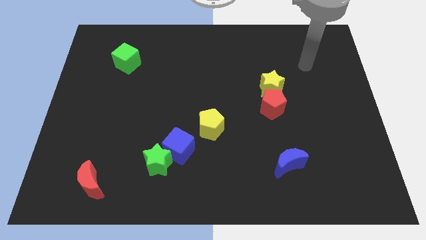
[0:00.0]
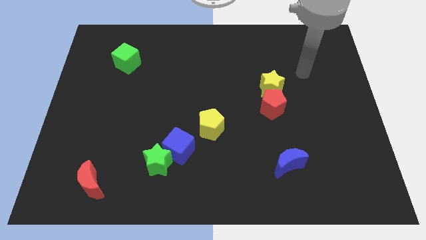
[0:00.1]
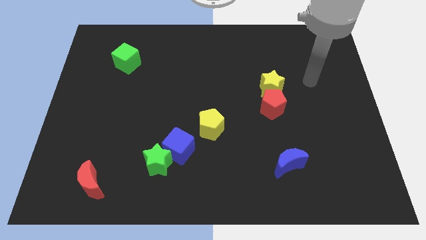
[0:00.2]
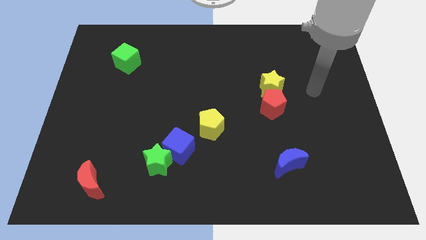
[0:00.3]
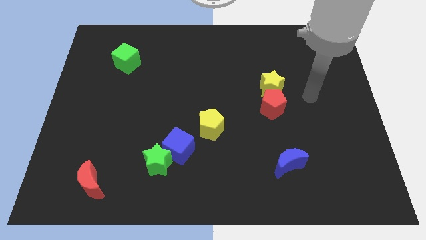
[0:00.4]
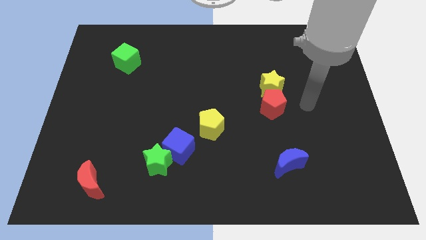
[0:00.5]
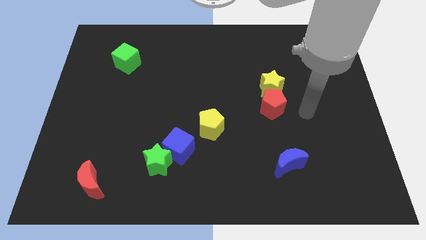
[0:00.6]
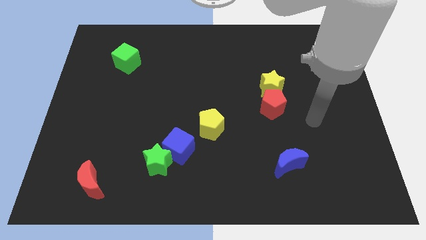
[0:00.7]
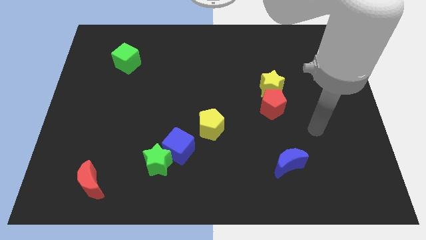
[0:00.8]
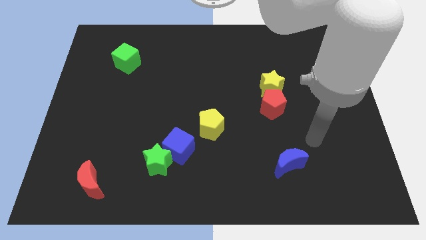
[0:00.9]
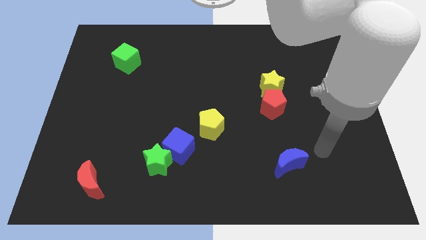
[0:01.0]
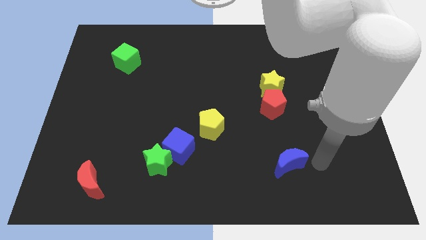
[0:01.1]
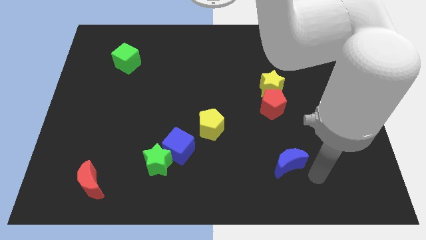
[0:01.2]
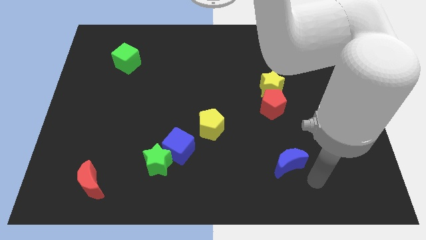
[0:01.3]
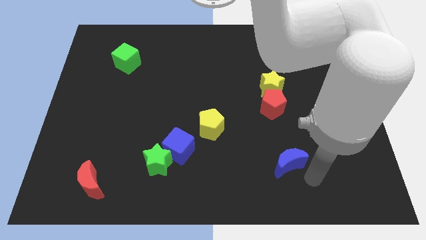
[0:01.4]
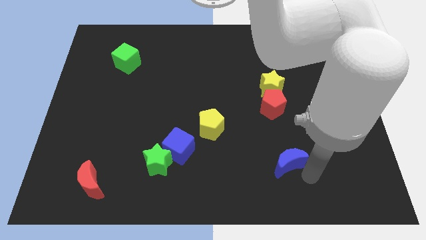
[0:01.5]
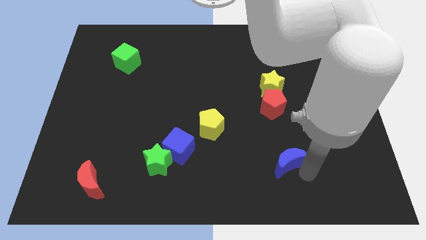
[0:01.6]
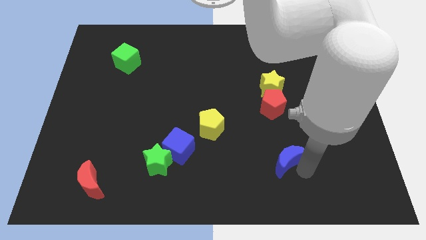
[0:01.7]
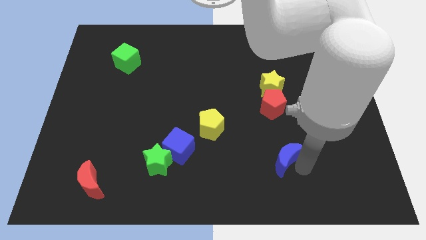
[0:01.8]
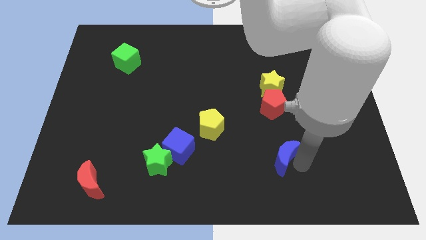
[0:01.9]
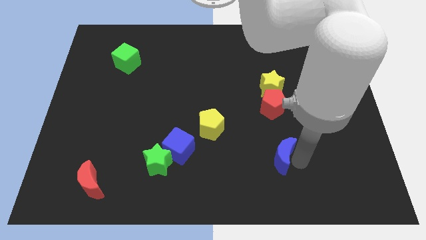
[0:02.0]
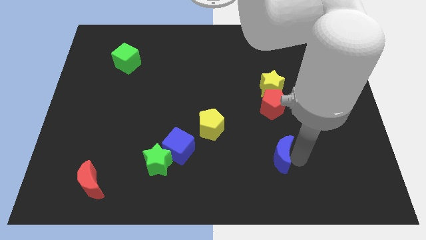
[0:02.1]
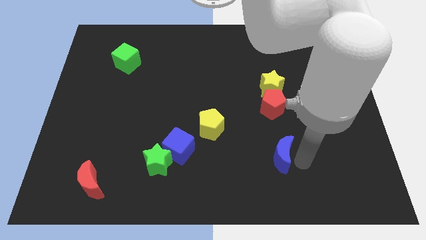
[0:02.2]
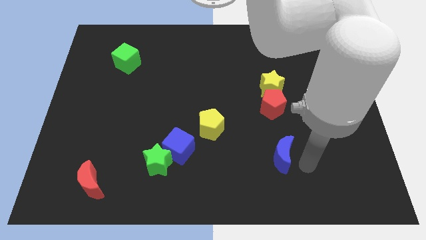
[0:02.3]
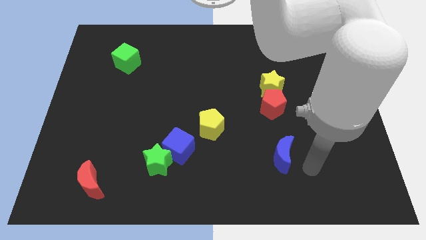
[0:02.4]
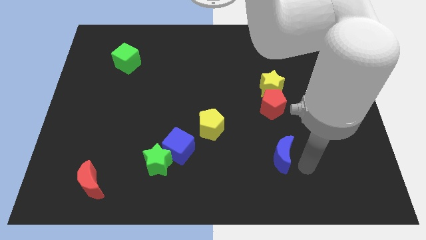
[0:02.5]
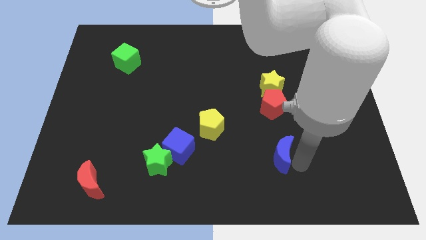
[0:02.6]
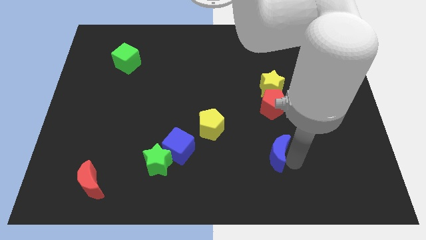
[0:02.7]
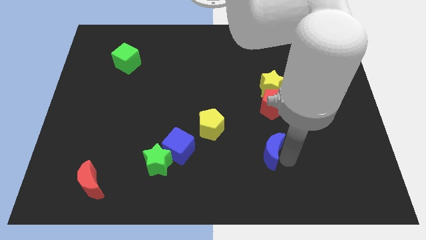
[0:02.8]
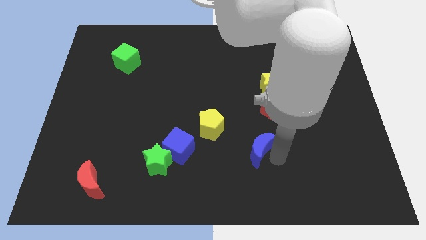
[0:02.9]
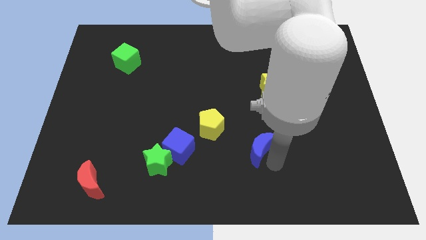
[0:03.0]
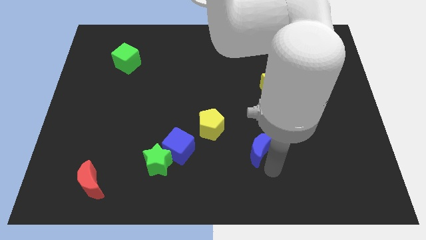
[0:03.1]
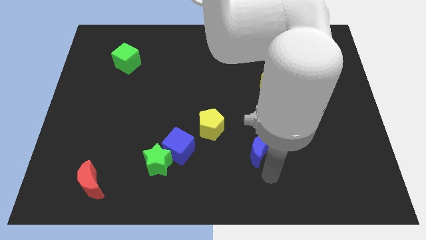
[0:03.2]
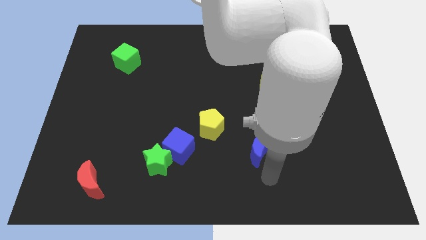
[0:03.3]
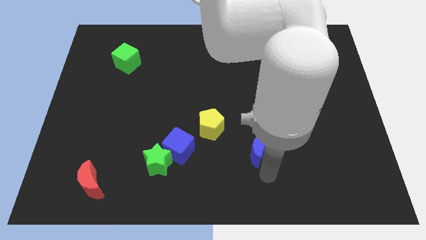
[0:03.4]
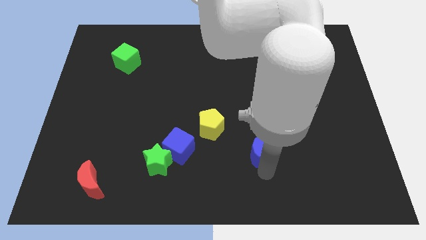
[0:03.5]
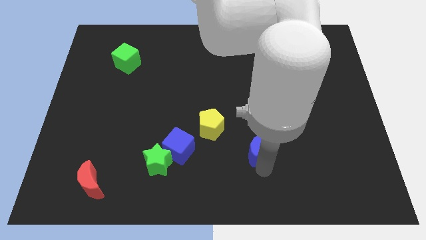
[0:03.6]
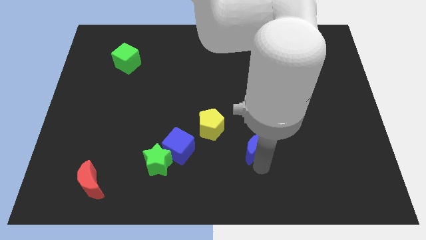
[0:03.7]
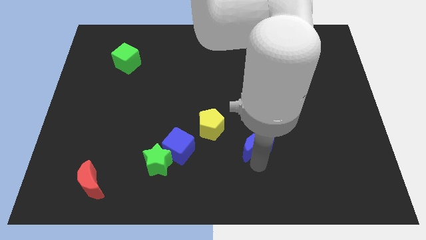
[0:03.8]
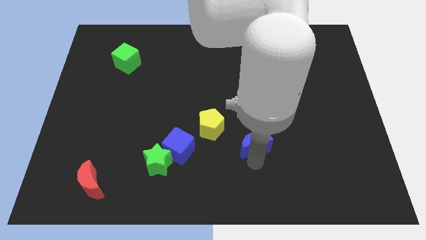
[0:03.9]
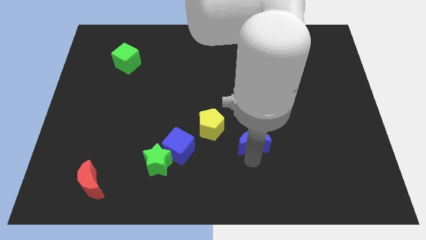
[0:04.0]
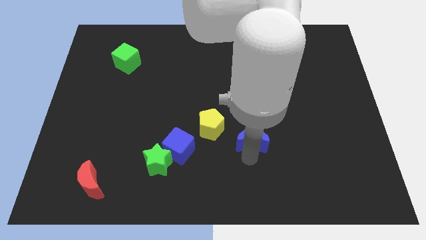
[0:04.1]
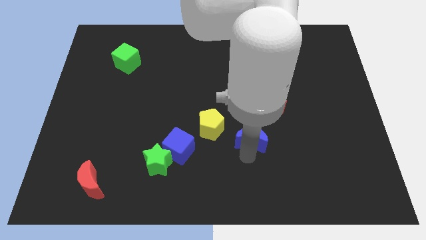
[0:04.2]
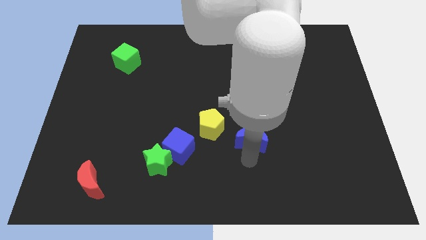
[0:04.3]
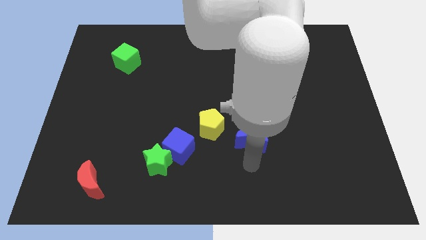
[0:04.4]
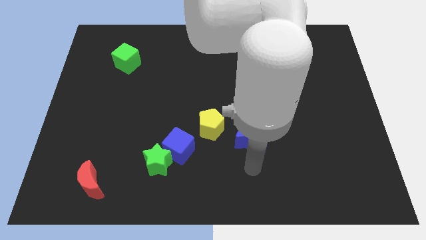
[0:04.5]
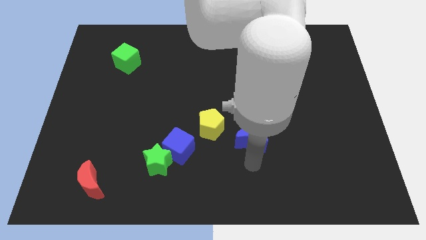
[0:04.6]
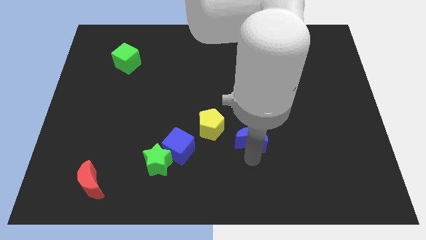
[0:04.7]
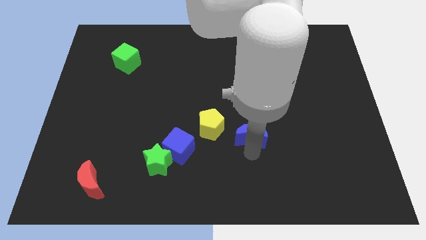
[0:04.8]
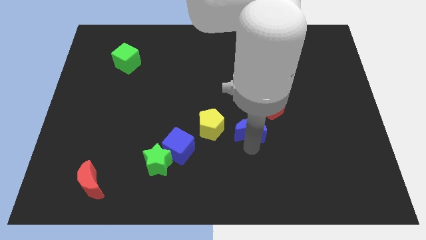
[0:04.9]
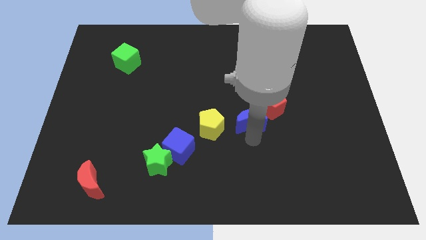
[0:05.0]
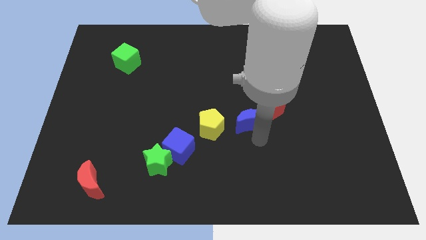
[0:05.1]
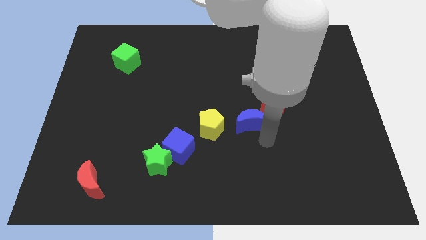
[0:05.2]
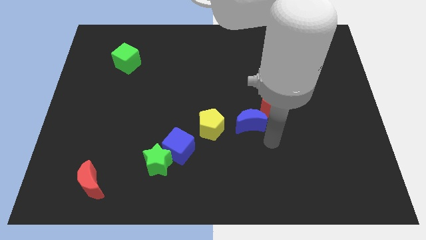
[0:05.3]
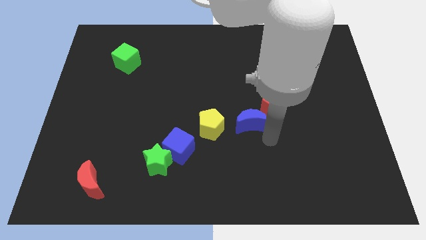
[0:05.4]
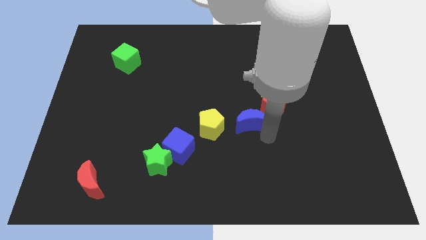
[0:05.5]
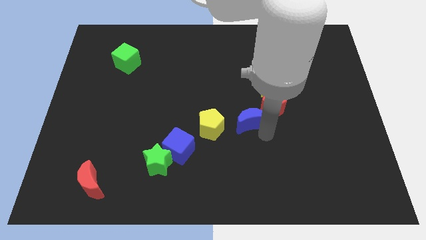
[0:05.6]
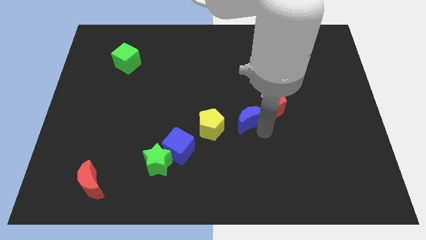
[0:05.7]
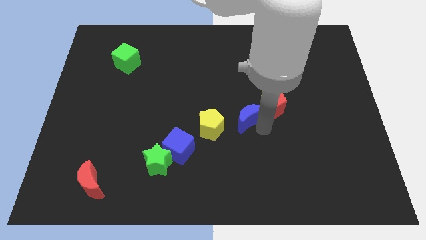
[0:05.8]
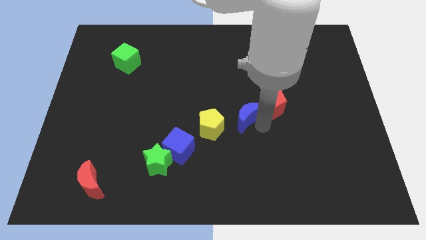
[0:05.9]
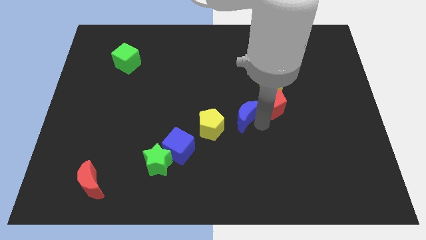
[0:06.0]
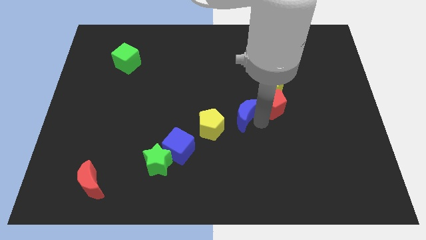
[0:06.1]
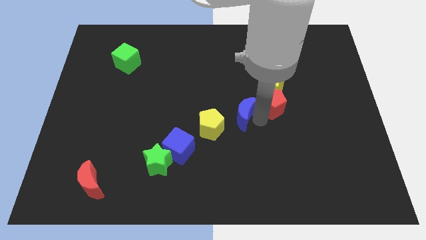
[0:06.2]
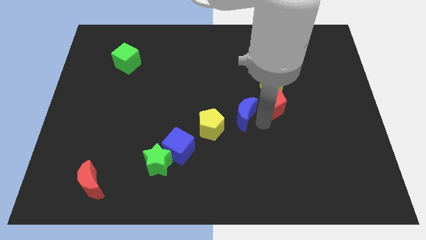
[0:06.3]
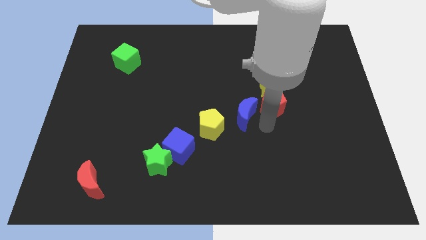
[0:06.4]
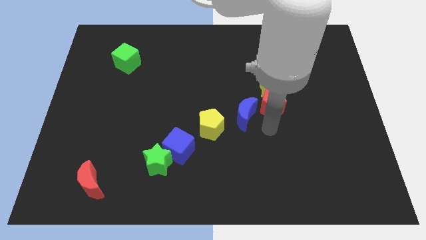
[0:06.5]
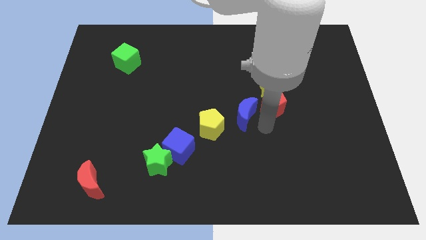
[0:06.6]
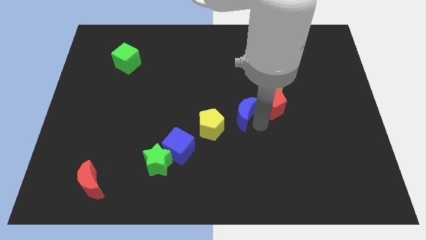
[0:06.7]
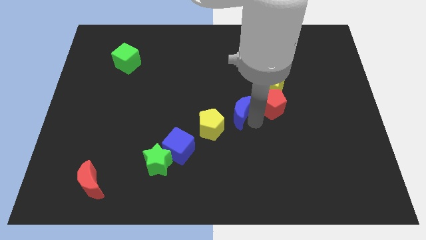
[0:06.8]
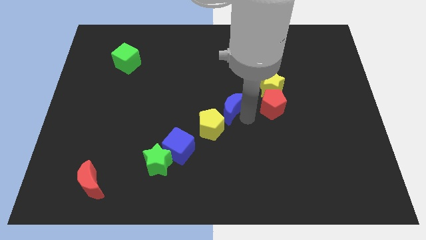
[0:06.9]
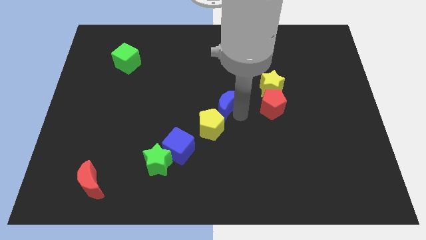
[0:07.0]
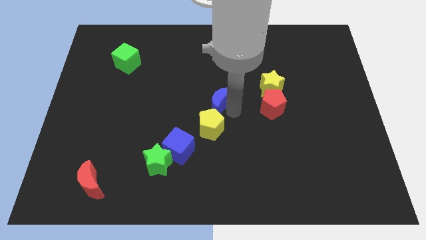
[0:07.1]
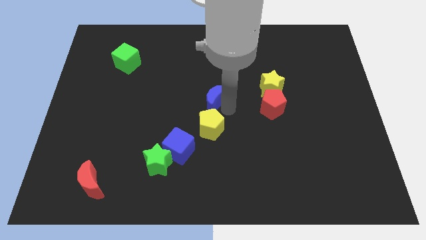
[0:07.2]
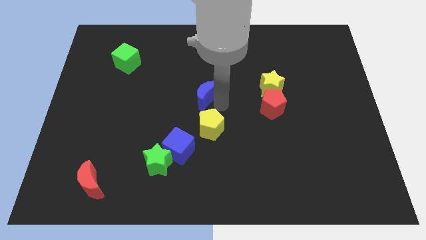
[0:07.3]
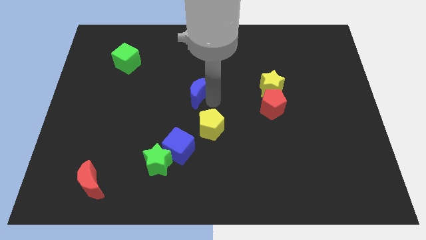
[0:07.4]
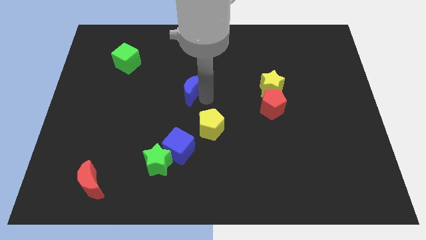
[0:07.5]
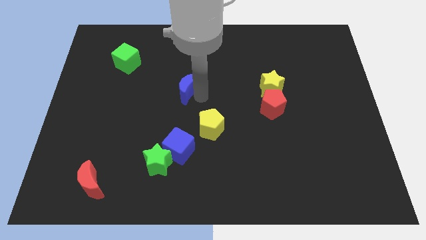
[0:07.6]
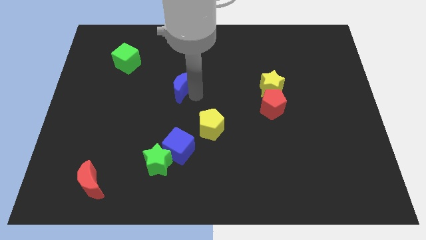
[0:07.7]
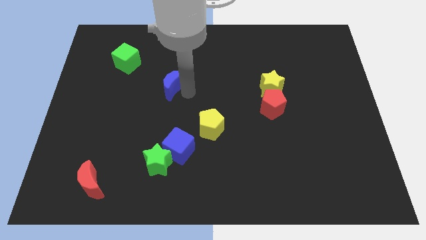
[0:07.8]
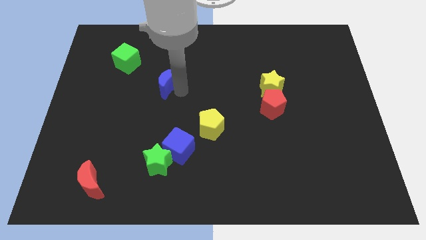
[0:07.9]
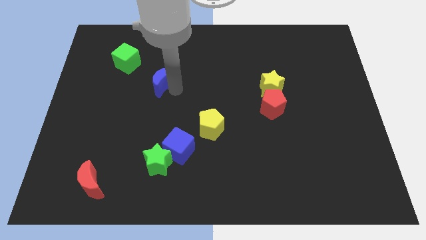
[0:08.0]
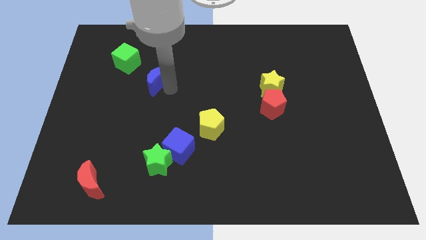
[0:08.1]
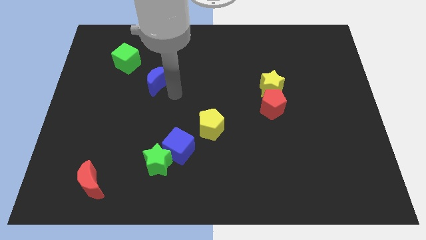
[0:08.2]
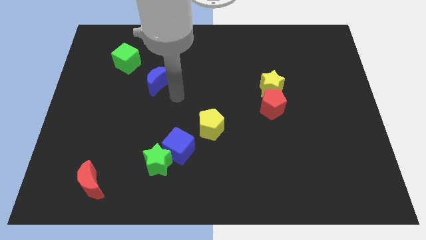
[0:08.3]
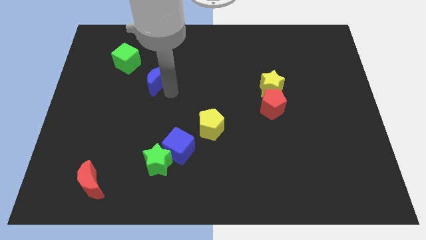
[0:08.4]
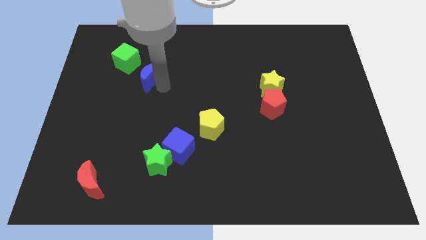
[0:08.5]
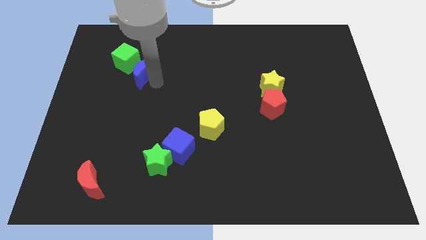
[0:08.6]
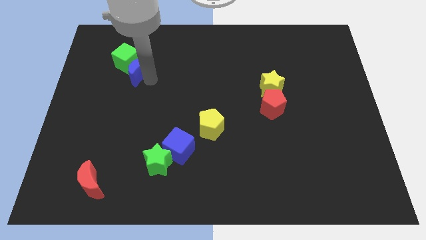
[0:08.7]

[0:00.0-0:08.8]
push the blue moon towards the green cube
